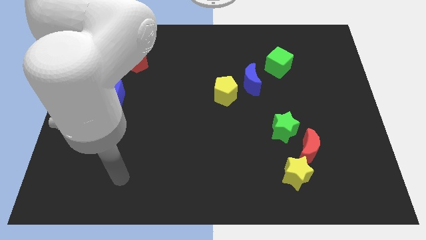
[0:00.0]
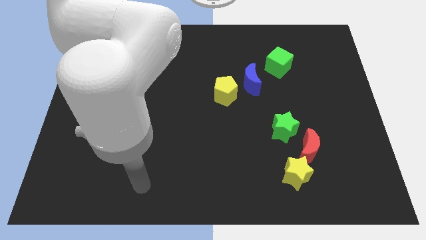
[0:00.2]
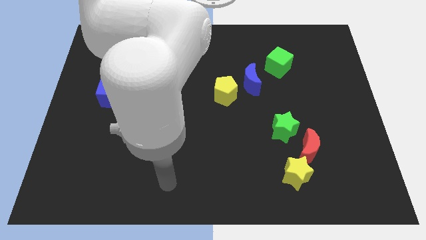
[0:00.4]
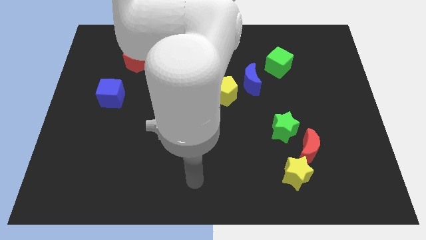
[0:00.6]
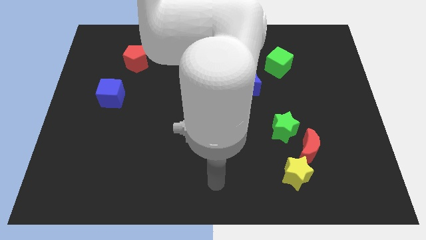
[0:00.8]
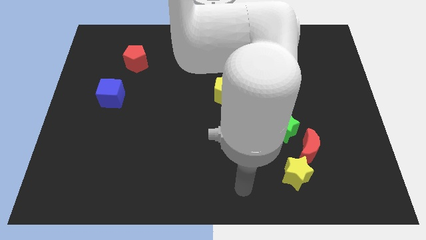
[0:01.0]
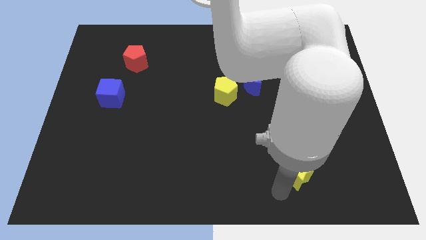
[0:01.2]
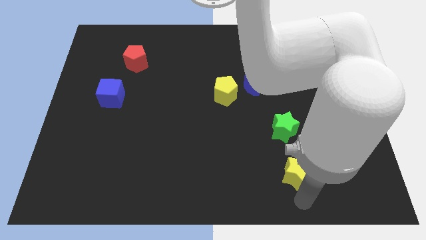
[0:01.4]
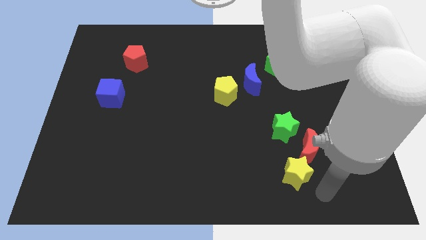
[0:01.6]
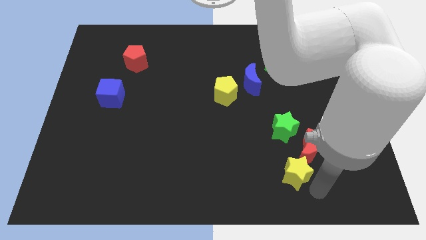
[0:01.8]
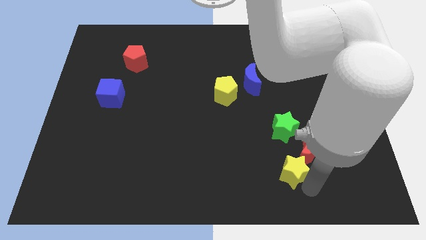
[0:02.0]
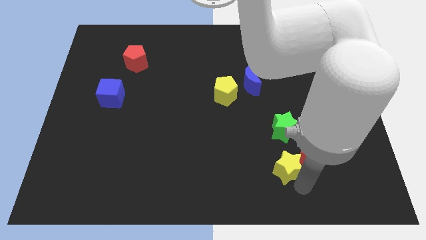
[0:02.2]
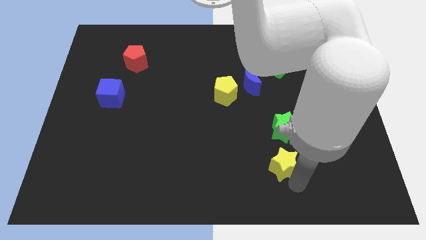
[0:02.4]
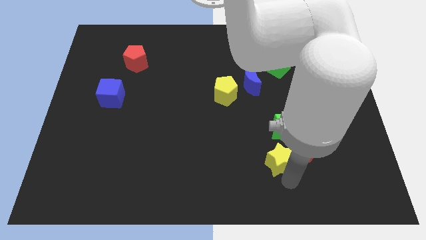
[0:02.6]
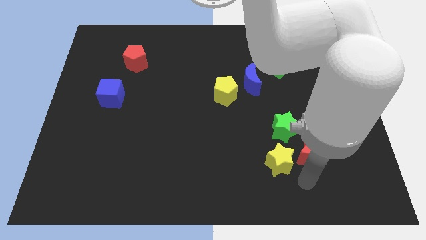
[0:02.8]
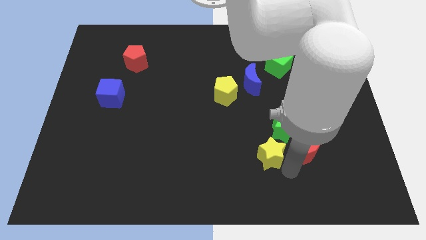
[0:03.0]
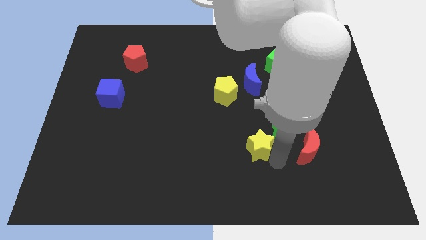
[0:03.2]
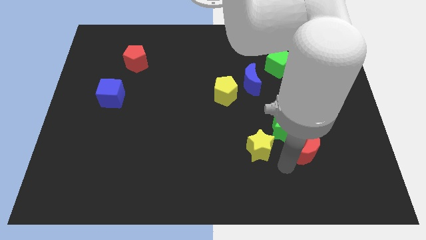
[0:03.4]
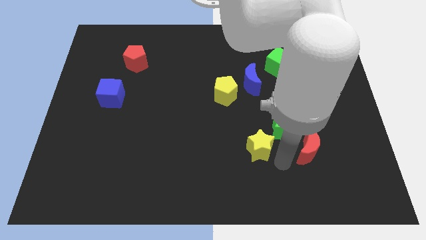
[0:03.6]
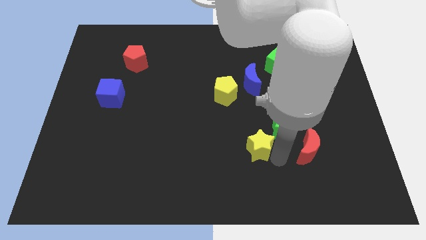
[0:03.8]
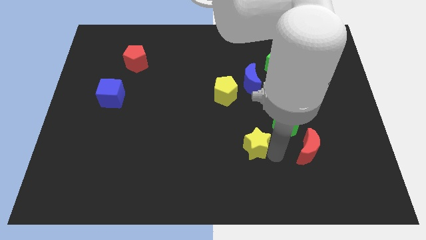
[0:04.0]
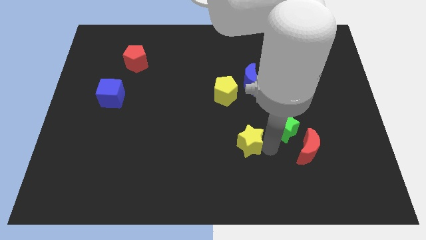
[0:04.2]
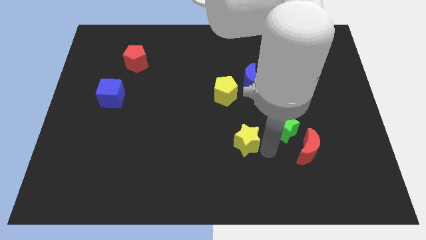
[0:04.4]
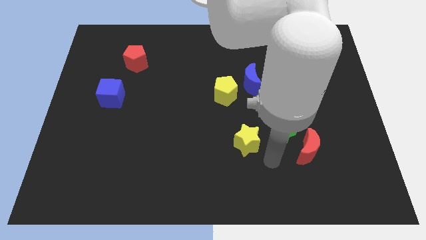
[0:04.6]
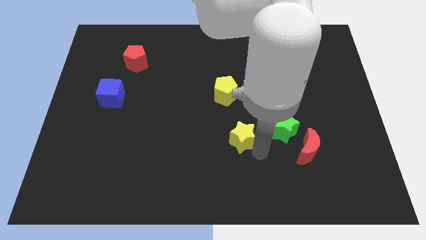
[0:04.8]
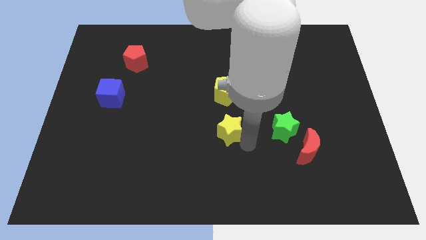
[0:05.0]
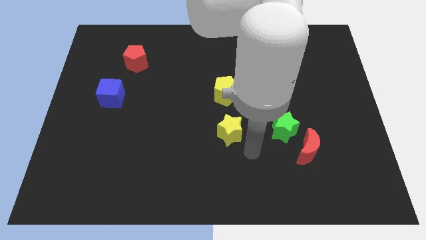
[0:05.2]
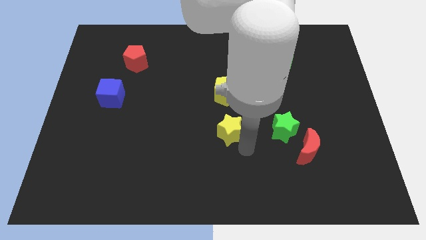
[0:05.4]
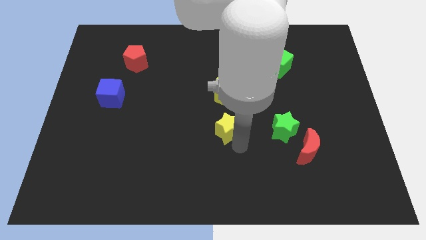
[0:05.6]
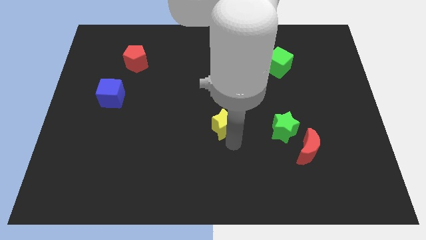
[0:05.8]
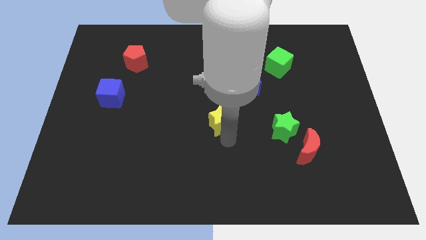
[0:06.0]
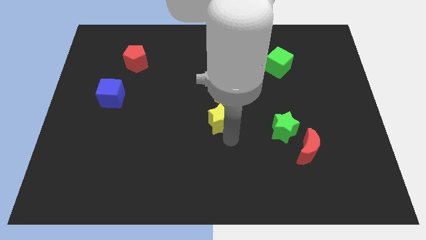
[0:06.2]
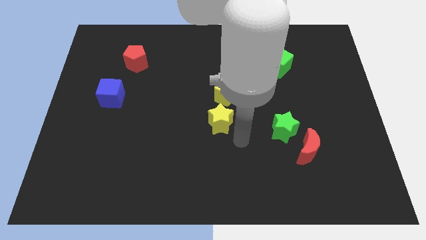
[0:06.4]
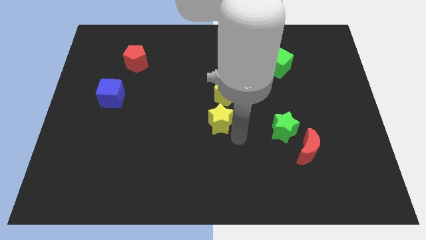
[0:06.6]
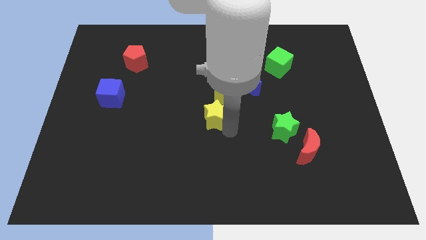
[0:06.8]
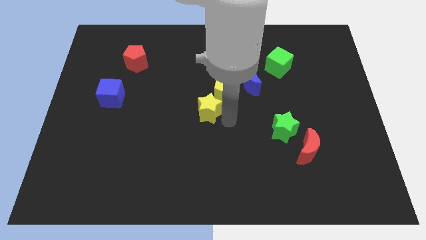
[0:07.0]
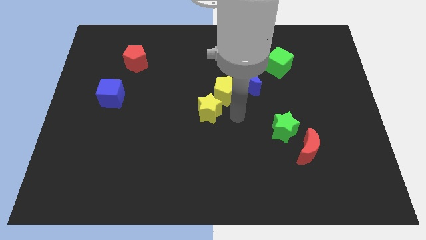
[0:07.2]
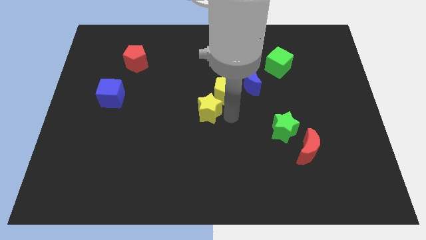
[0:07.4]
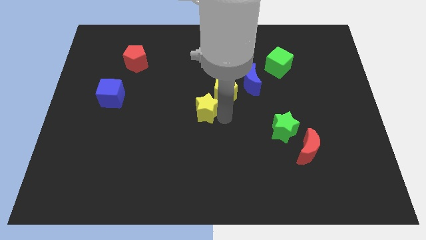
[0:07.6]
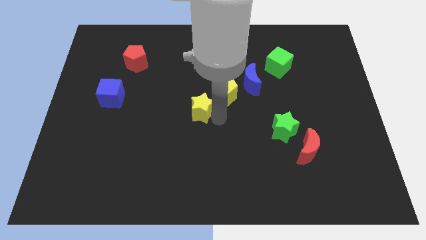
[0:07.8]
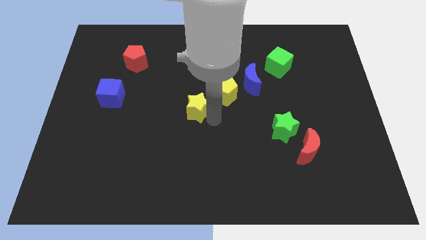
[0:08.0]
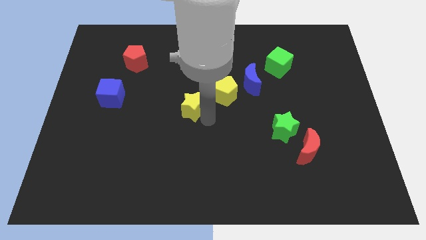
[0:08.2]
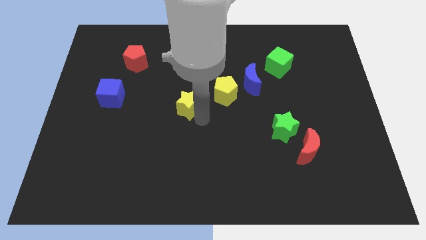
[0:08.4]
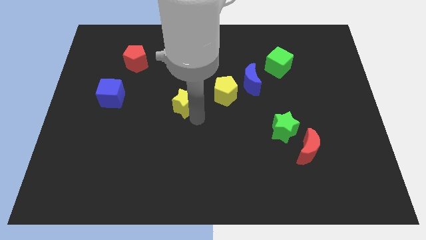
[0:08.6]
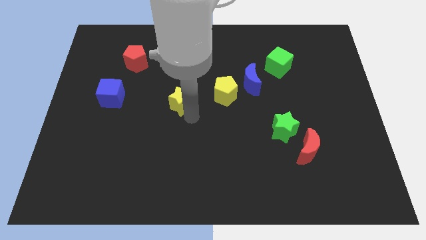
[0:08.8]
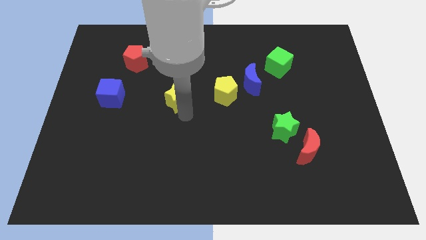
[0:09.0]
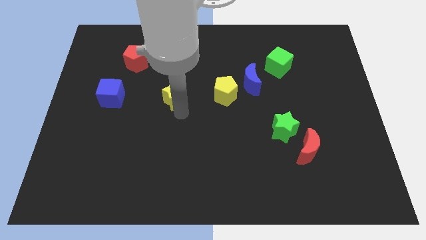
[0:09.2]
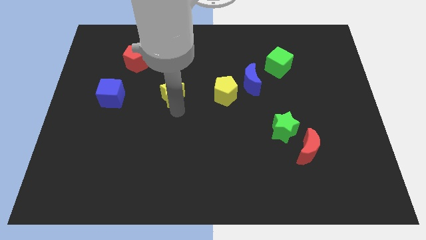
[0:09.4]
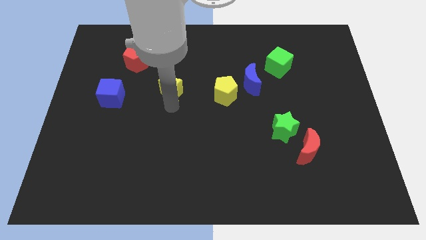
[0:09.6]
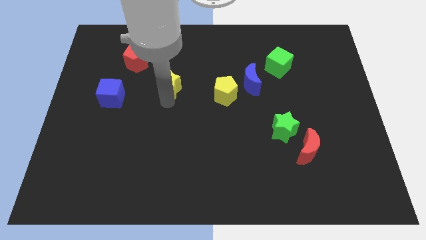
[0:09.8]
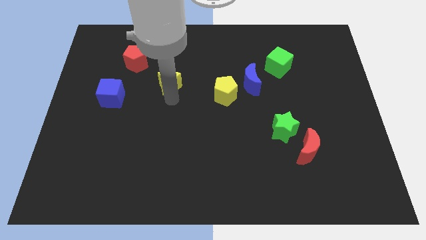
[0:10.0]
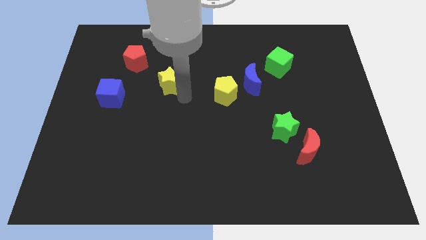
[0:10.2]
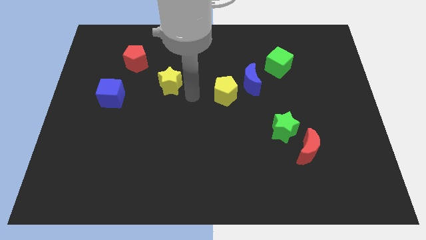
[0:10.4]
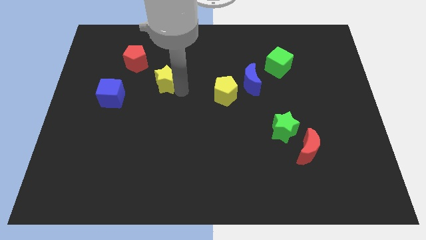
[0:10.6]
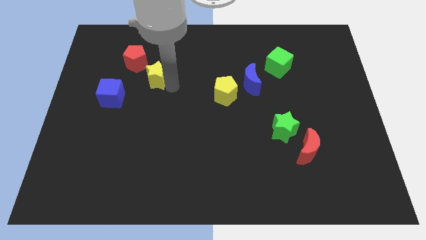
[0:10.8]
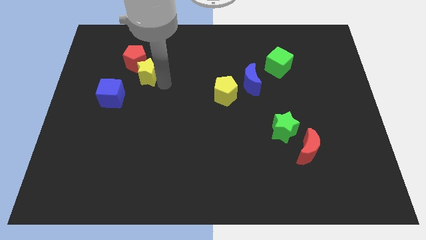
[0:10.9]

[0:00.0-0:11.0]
put the yellow star next to the red pentagon

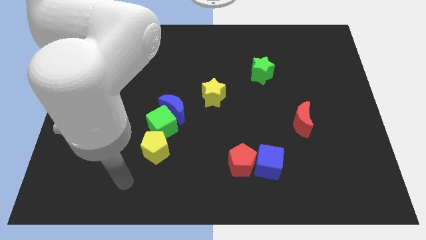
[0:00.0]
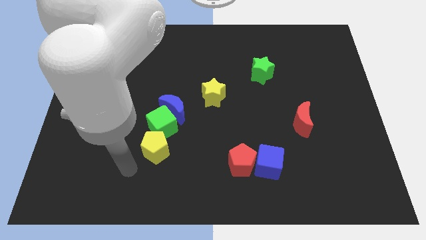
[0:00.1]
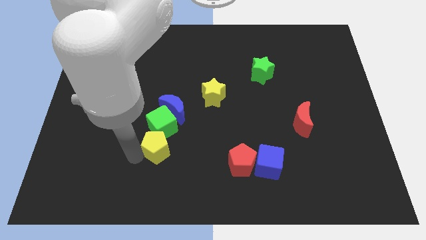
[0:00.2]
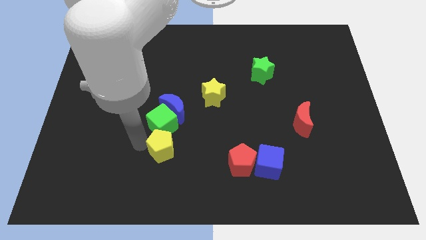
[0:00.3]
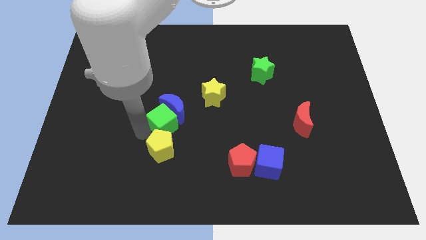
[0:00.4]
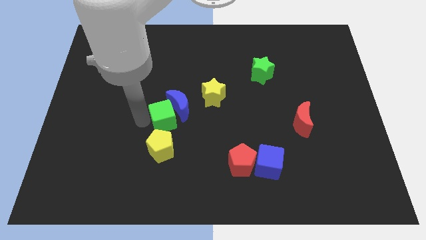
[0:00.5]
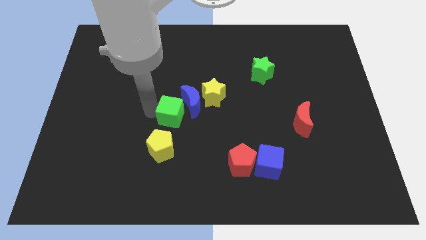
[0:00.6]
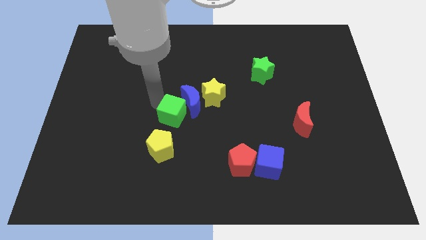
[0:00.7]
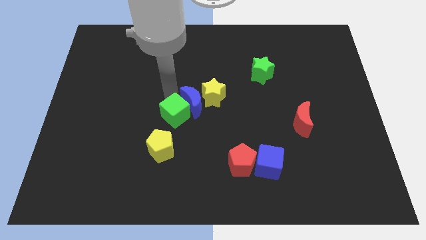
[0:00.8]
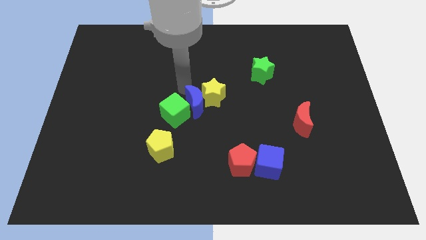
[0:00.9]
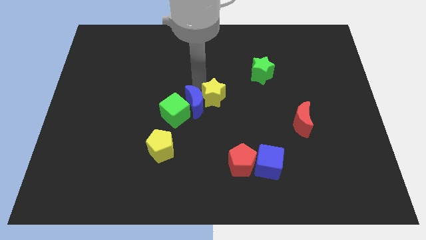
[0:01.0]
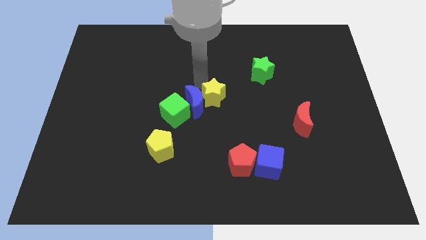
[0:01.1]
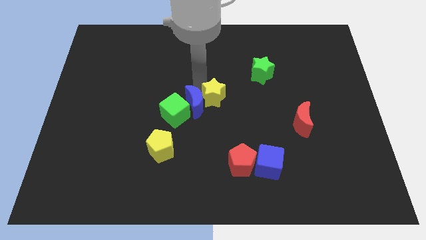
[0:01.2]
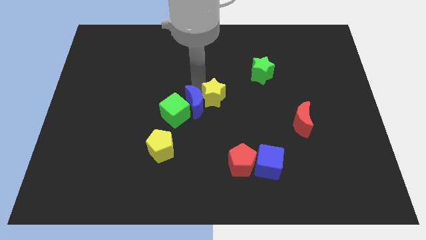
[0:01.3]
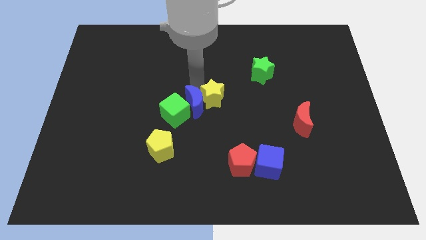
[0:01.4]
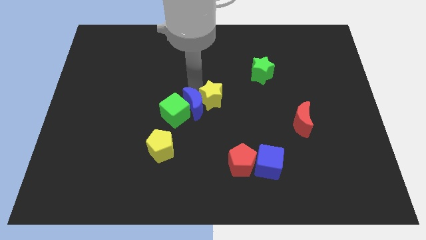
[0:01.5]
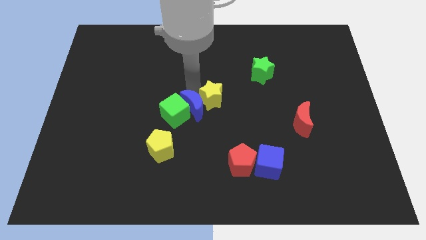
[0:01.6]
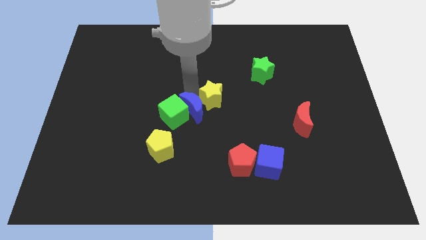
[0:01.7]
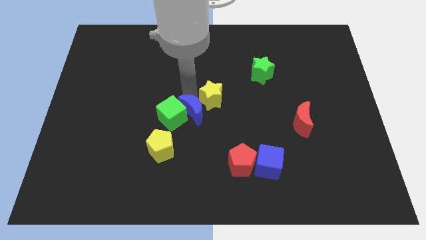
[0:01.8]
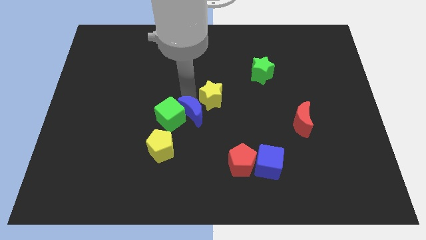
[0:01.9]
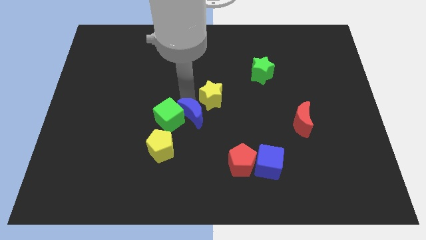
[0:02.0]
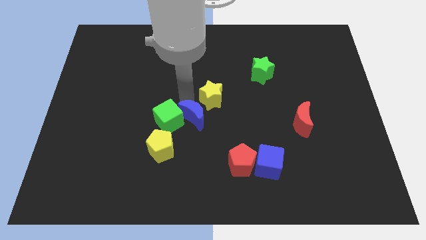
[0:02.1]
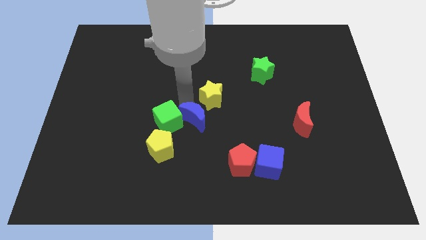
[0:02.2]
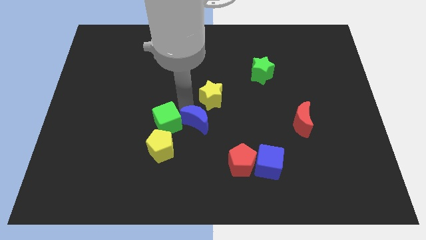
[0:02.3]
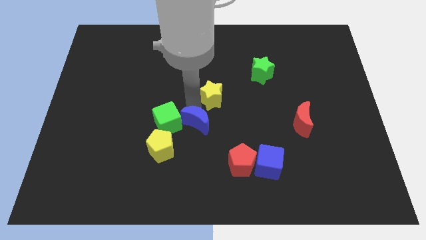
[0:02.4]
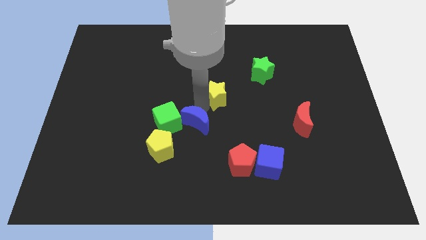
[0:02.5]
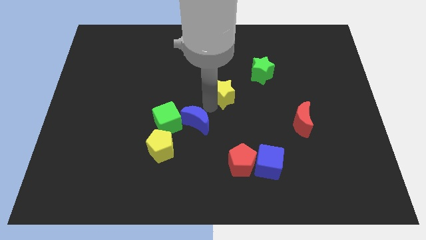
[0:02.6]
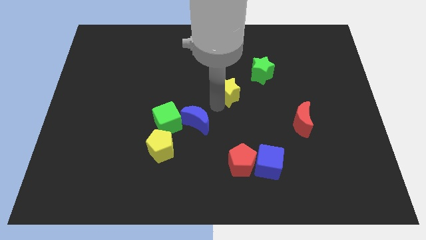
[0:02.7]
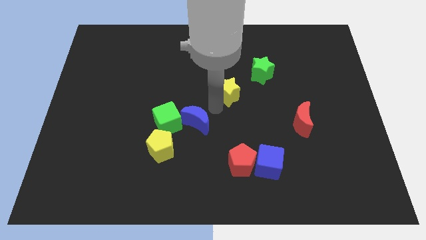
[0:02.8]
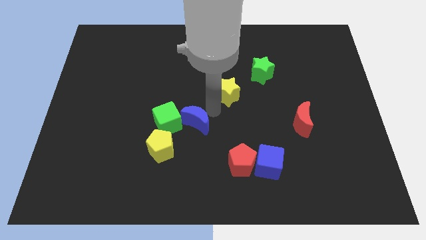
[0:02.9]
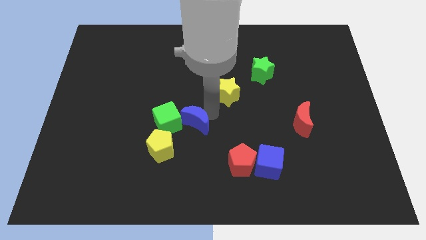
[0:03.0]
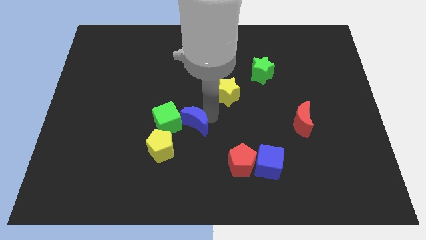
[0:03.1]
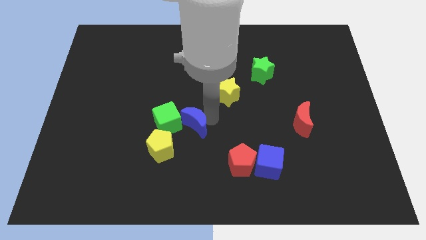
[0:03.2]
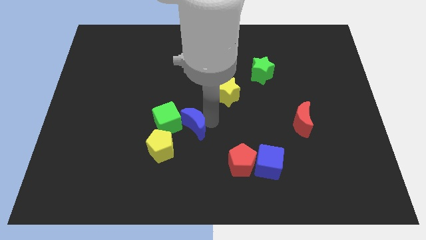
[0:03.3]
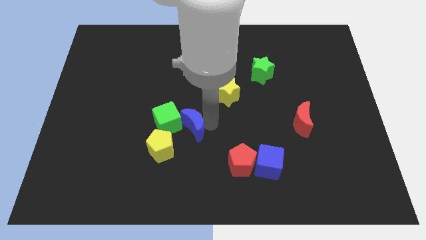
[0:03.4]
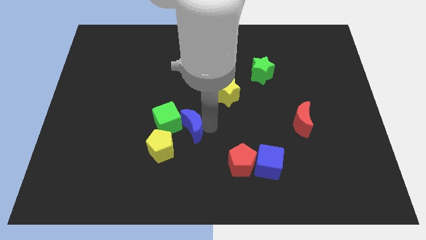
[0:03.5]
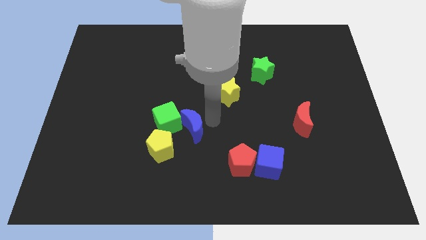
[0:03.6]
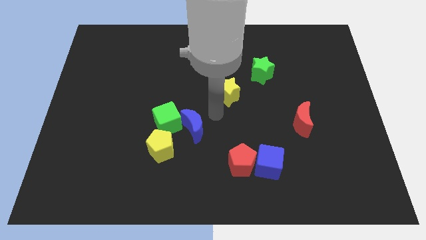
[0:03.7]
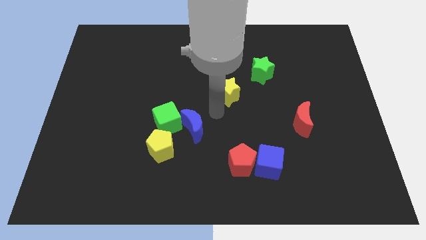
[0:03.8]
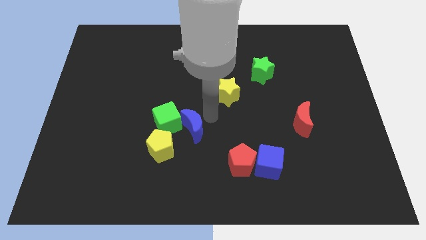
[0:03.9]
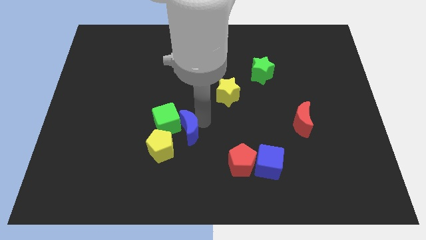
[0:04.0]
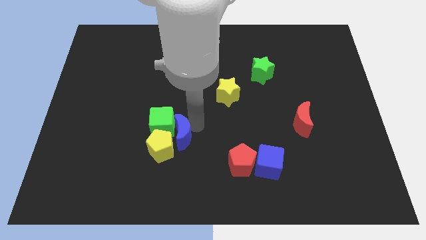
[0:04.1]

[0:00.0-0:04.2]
put the blue moon next to the yellow pentagon
